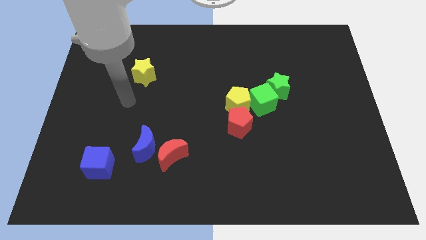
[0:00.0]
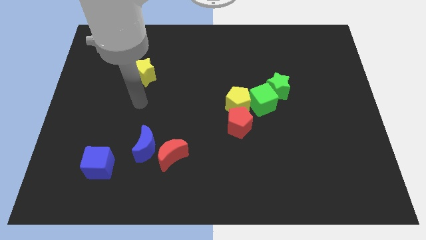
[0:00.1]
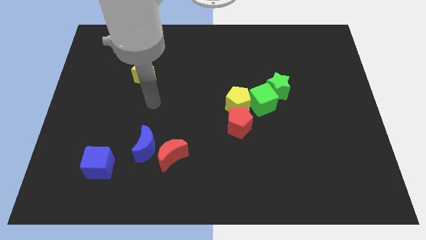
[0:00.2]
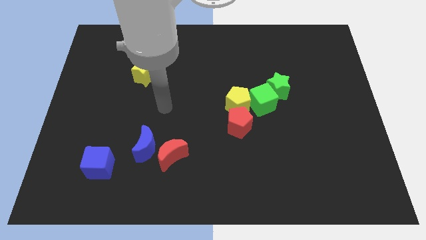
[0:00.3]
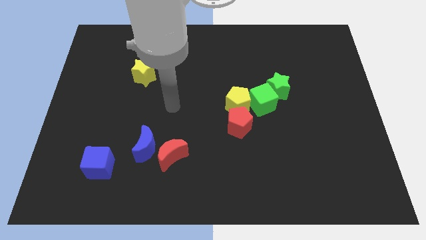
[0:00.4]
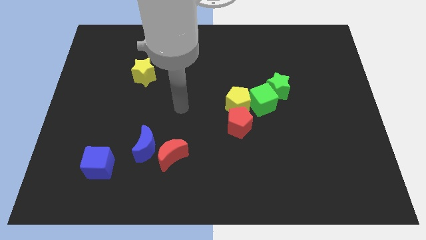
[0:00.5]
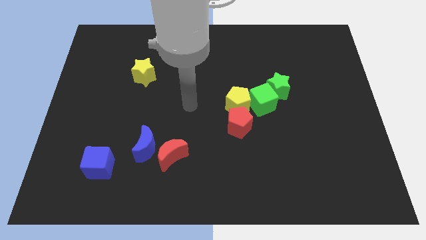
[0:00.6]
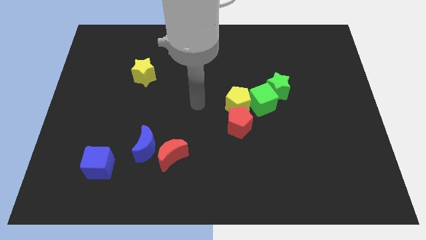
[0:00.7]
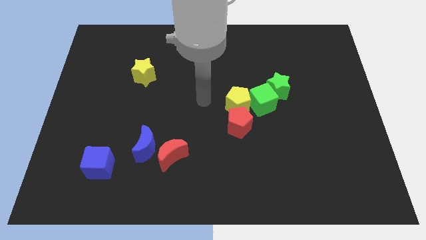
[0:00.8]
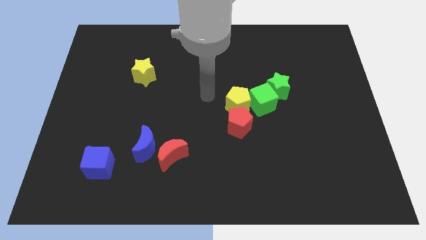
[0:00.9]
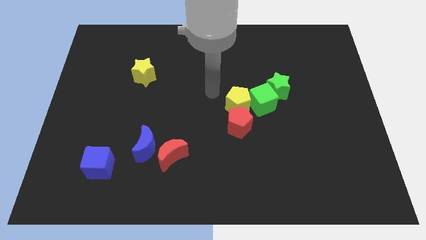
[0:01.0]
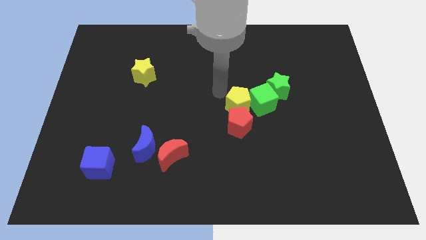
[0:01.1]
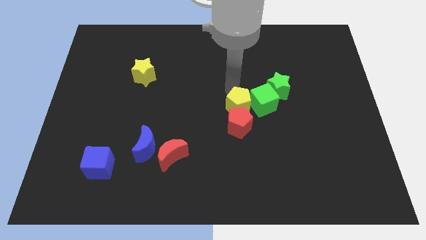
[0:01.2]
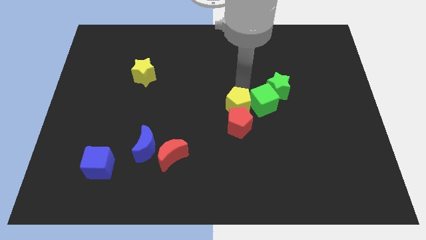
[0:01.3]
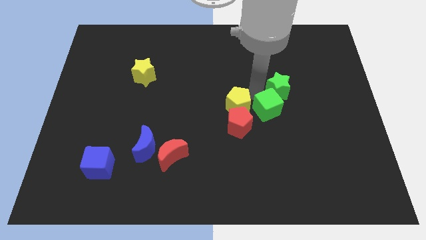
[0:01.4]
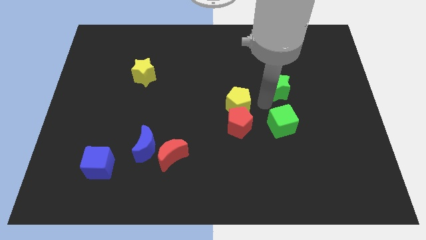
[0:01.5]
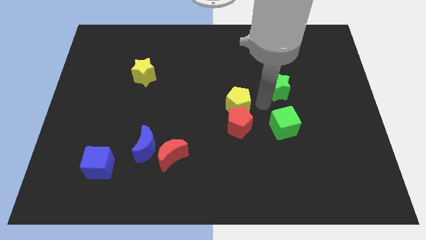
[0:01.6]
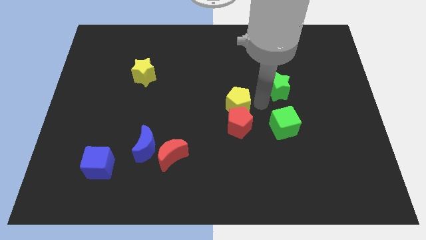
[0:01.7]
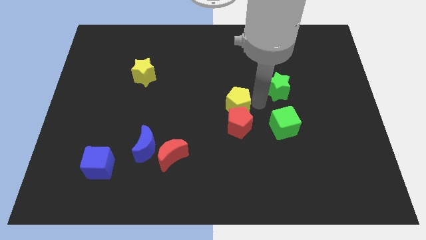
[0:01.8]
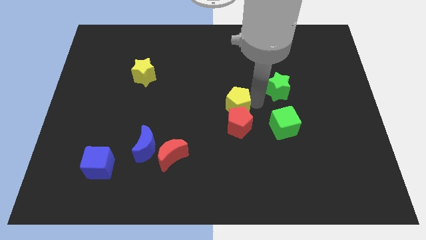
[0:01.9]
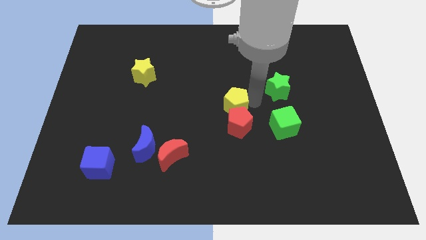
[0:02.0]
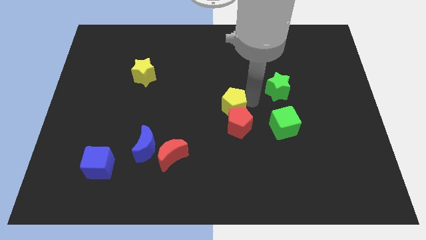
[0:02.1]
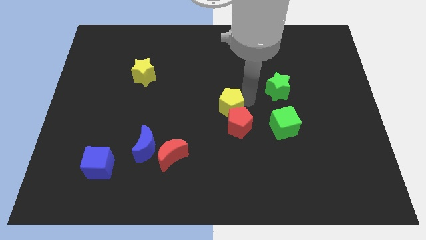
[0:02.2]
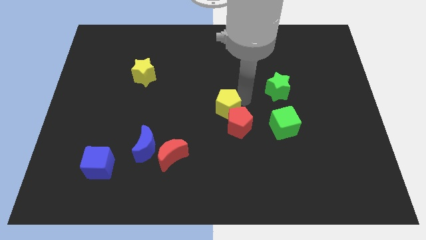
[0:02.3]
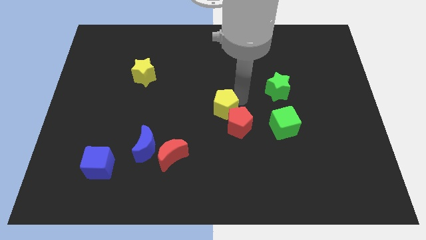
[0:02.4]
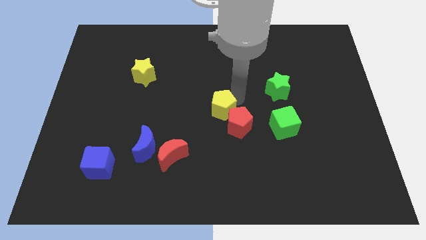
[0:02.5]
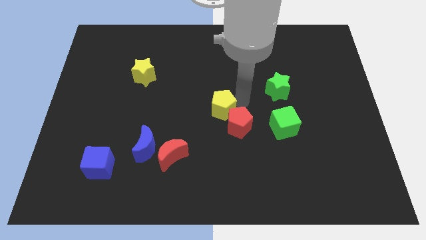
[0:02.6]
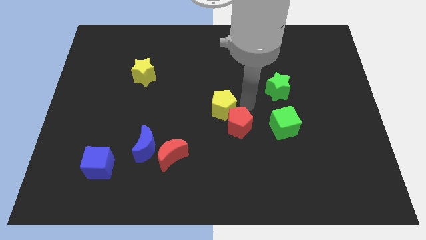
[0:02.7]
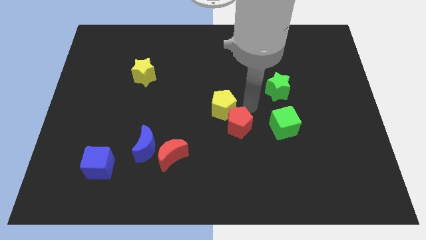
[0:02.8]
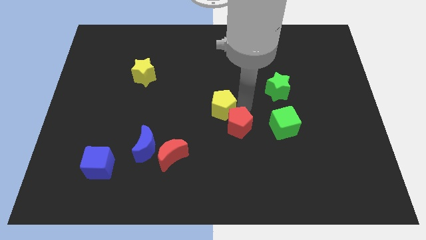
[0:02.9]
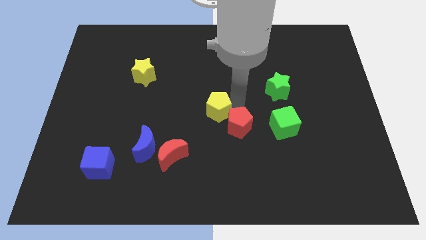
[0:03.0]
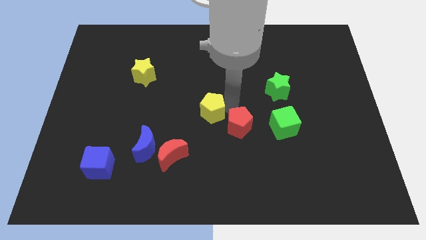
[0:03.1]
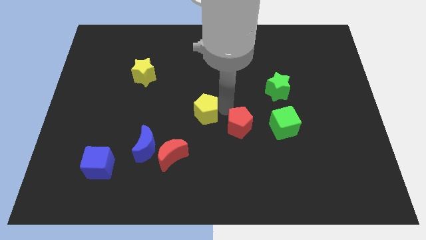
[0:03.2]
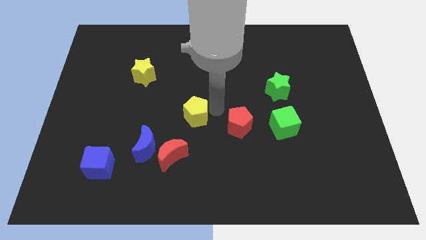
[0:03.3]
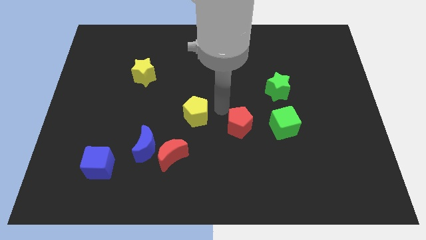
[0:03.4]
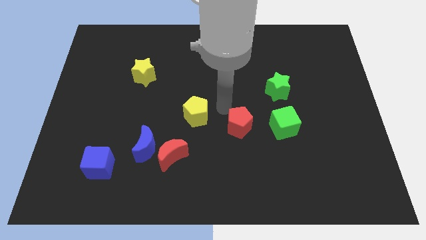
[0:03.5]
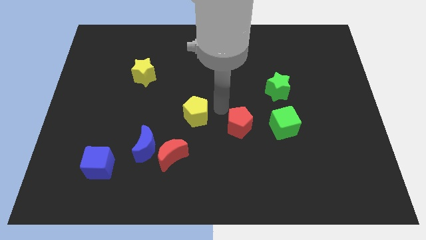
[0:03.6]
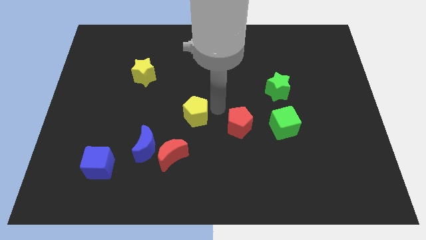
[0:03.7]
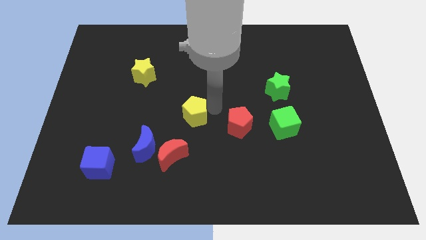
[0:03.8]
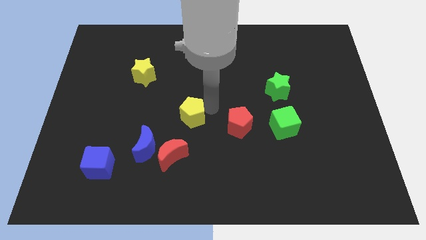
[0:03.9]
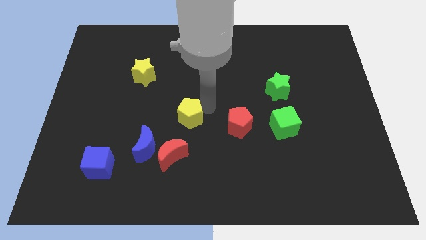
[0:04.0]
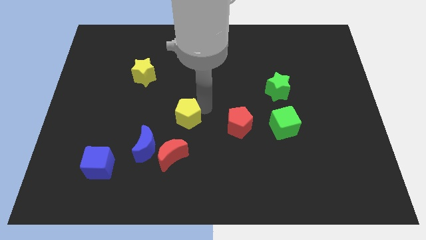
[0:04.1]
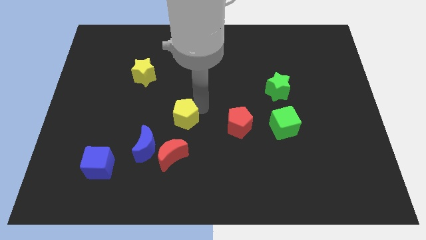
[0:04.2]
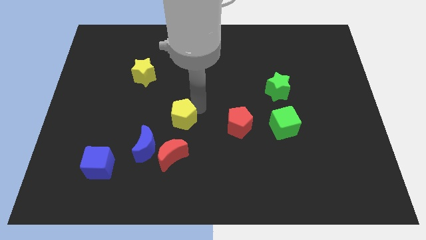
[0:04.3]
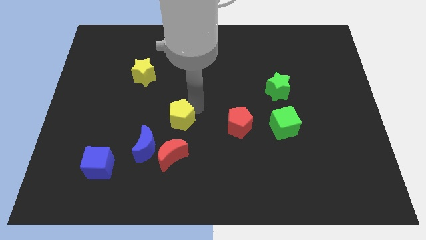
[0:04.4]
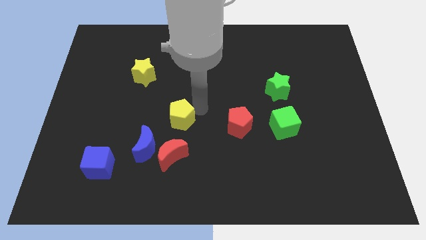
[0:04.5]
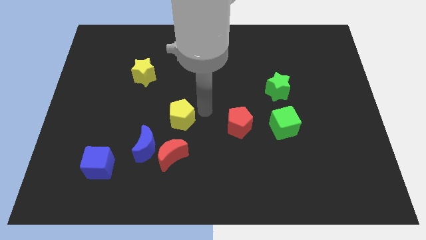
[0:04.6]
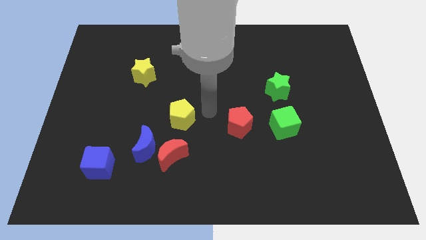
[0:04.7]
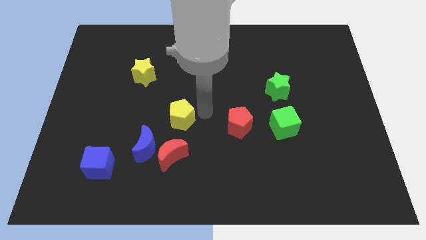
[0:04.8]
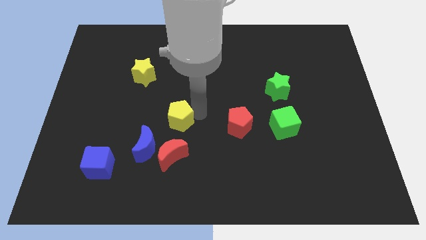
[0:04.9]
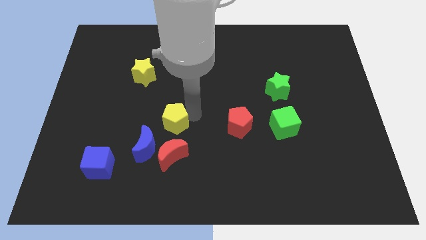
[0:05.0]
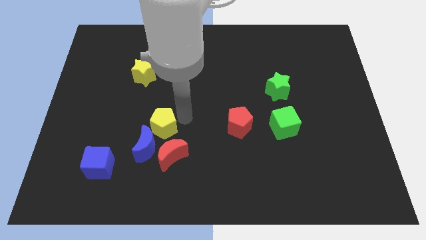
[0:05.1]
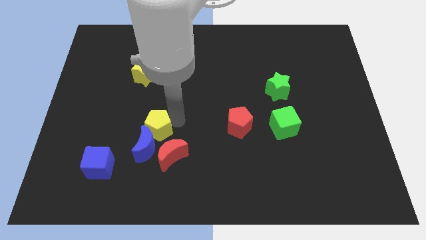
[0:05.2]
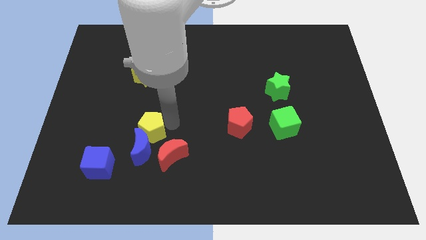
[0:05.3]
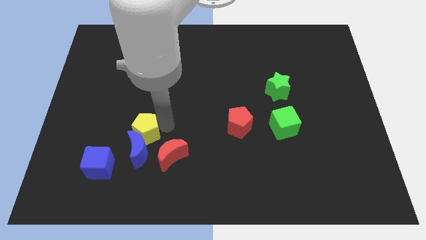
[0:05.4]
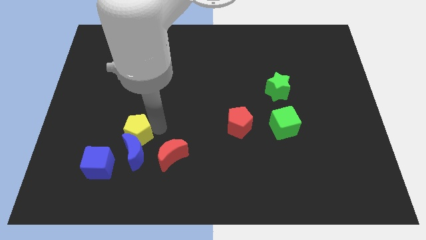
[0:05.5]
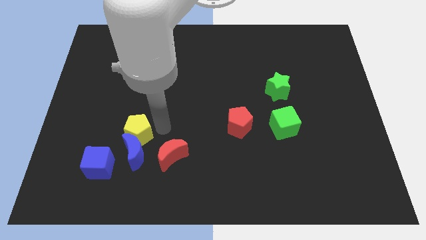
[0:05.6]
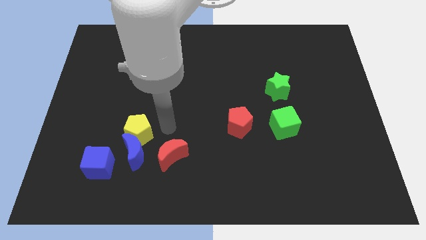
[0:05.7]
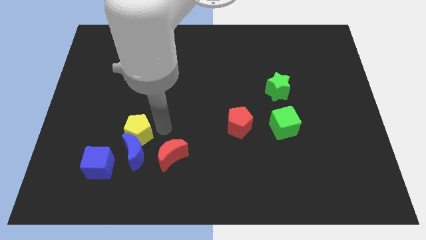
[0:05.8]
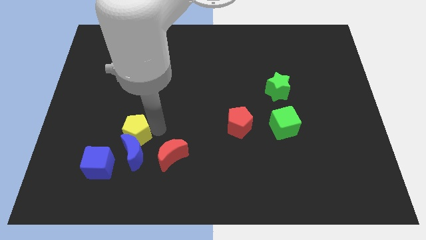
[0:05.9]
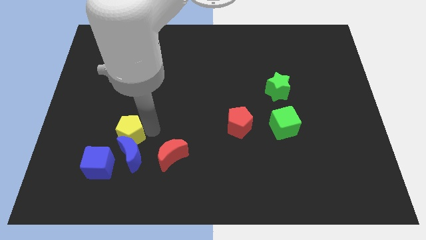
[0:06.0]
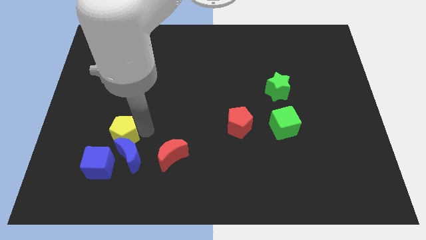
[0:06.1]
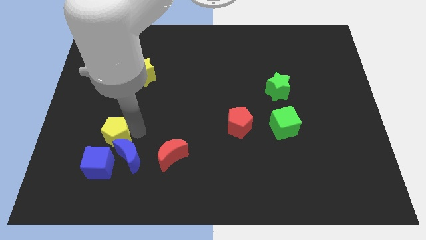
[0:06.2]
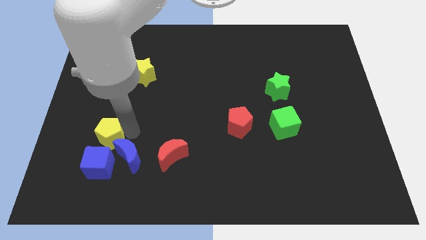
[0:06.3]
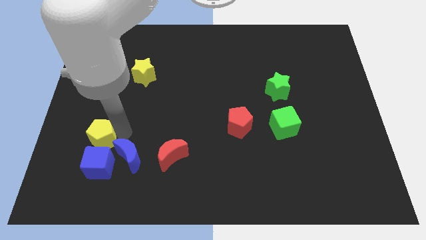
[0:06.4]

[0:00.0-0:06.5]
push the yellow pentagon to the top left of the blue cube

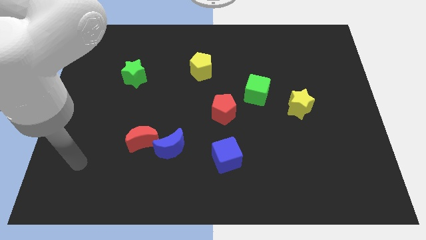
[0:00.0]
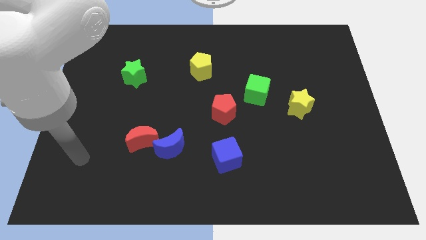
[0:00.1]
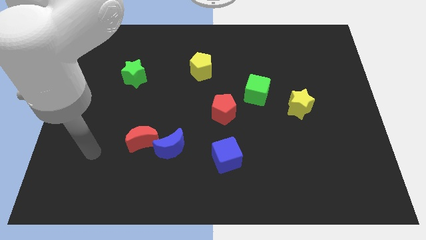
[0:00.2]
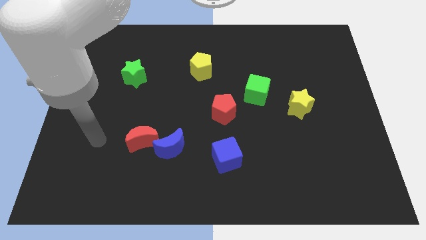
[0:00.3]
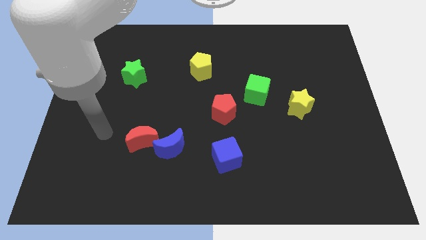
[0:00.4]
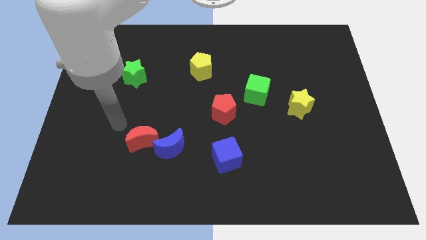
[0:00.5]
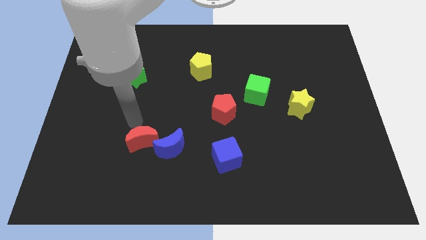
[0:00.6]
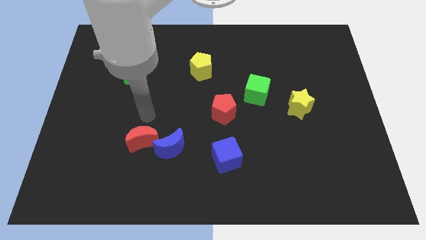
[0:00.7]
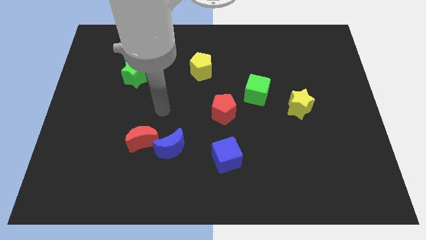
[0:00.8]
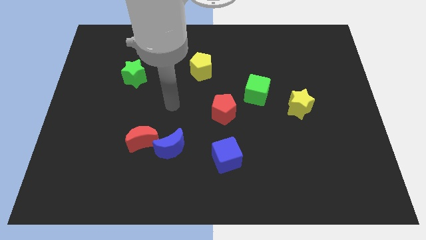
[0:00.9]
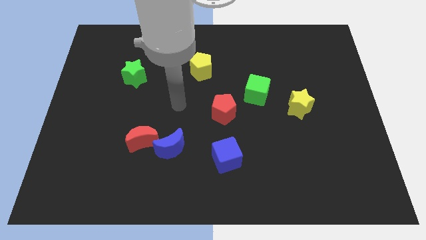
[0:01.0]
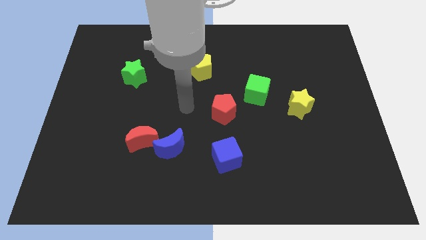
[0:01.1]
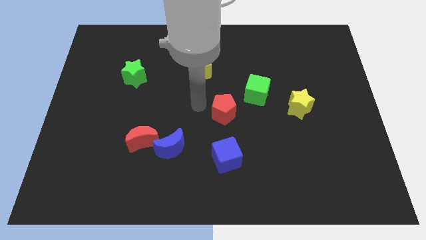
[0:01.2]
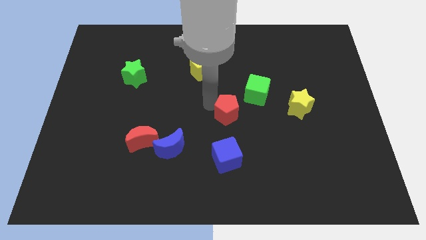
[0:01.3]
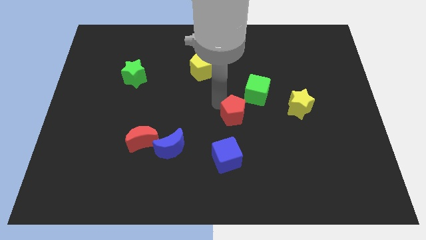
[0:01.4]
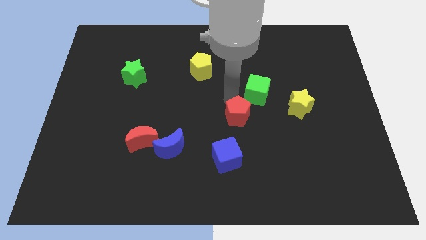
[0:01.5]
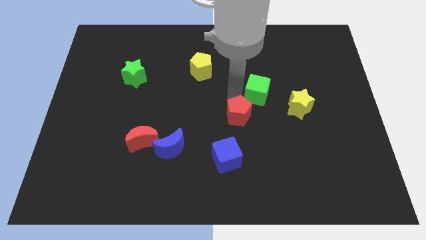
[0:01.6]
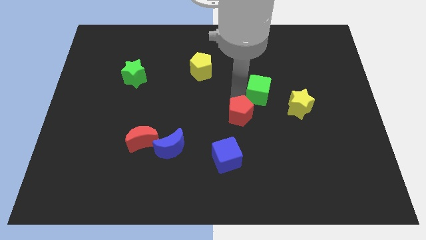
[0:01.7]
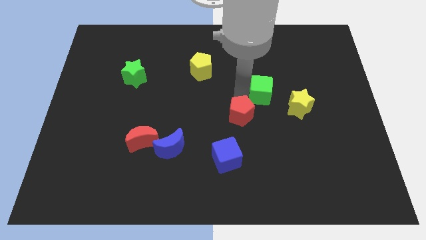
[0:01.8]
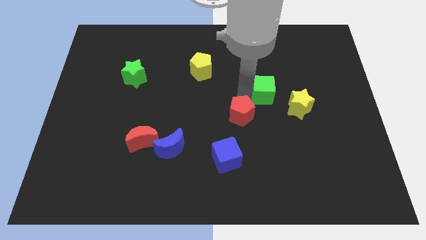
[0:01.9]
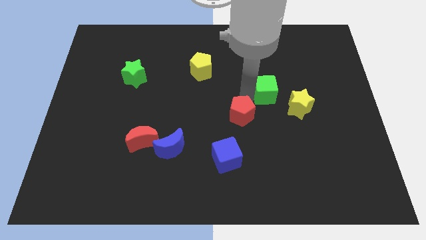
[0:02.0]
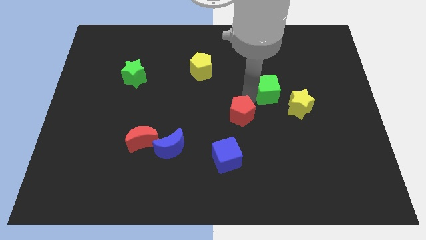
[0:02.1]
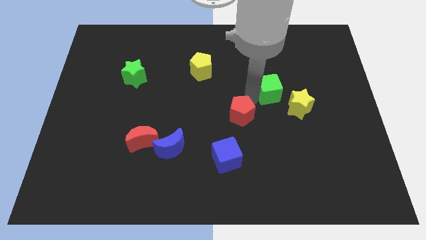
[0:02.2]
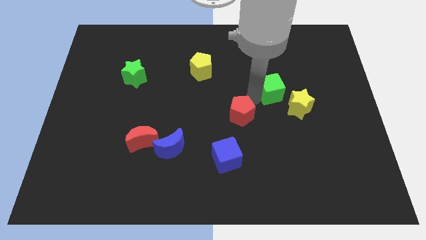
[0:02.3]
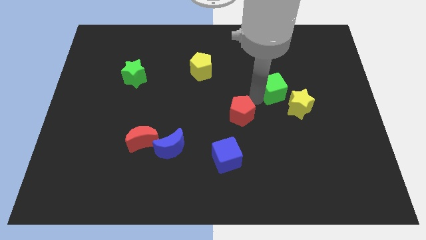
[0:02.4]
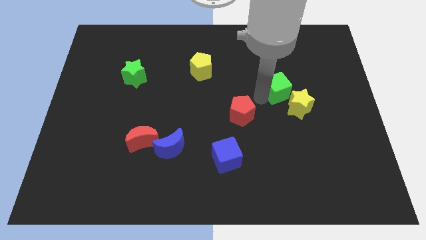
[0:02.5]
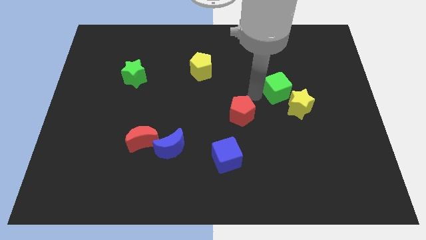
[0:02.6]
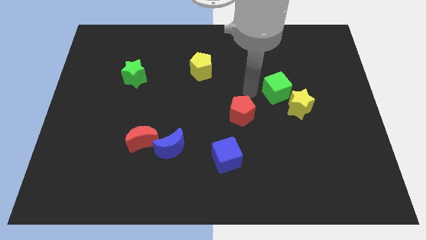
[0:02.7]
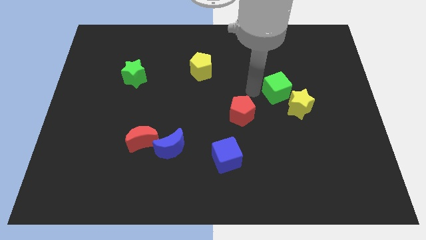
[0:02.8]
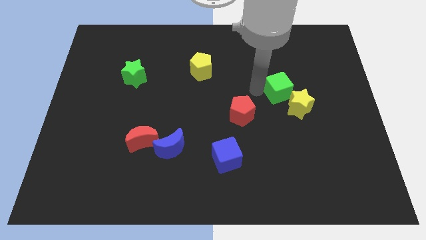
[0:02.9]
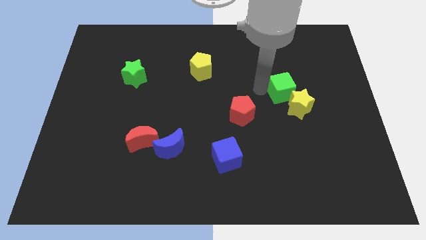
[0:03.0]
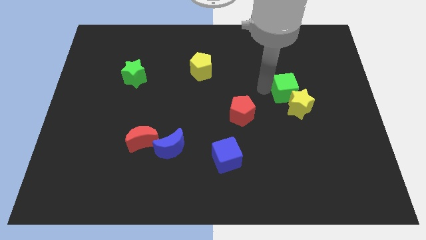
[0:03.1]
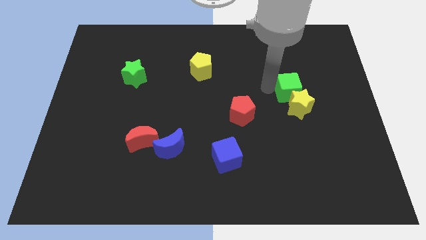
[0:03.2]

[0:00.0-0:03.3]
move the green cube to the top right side of the yellow star
